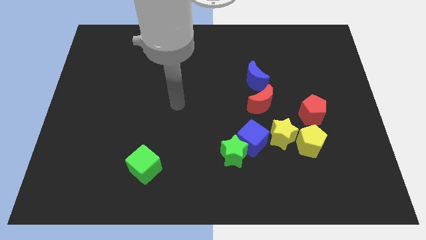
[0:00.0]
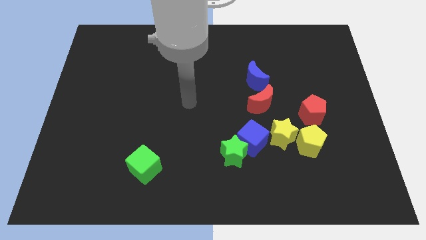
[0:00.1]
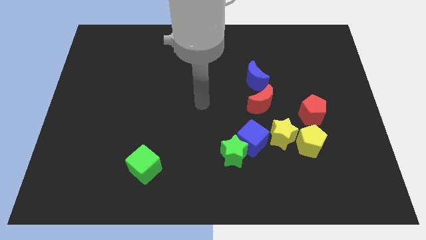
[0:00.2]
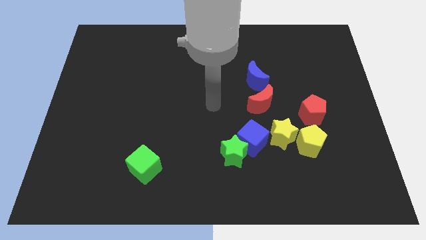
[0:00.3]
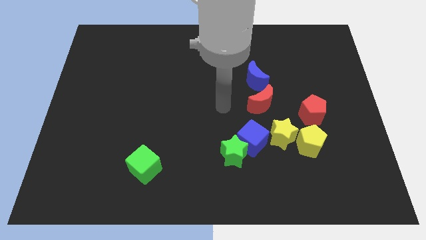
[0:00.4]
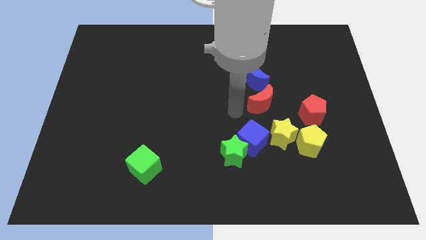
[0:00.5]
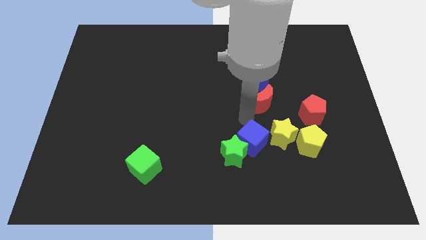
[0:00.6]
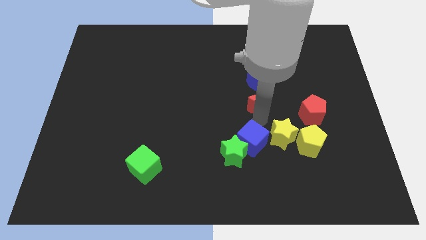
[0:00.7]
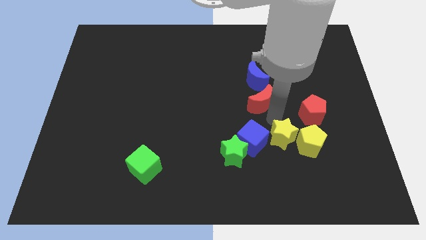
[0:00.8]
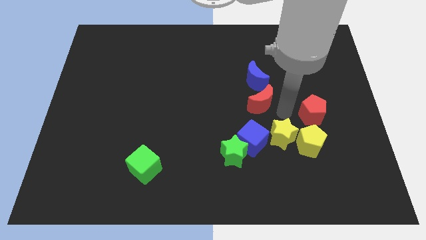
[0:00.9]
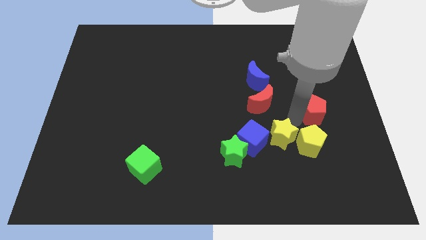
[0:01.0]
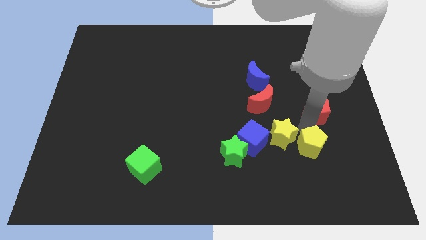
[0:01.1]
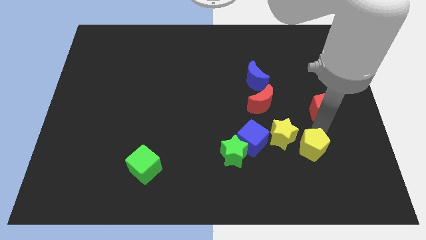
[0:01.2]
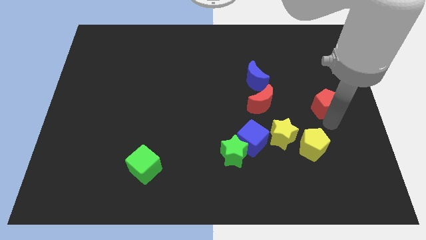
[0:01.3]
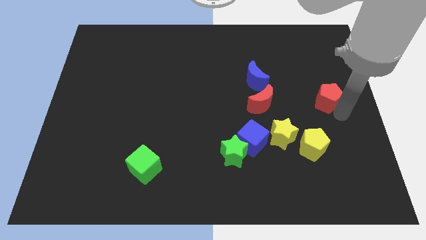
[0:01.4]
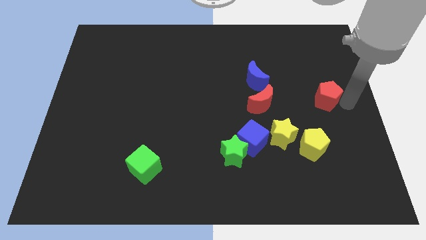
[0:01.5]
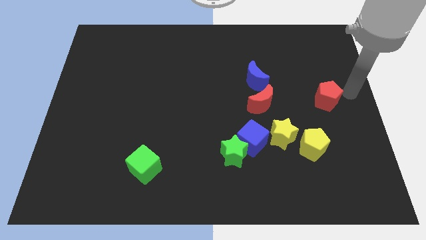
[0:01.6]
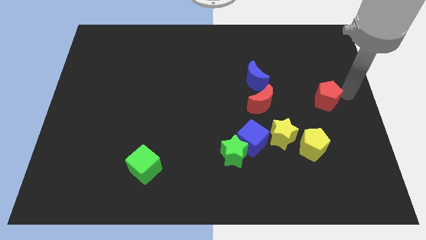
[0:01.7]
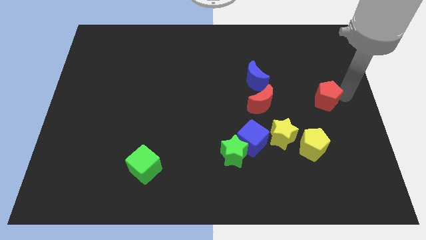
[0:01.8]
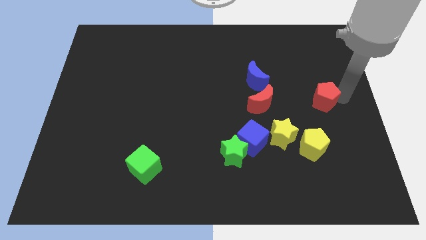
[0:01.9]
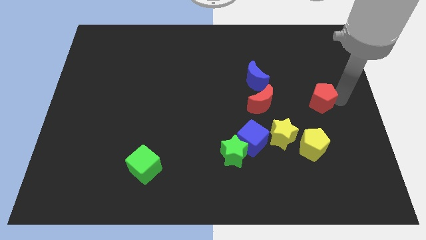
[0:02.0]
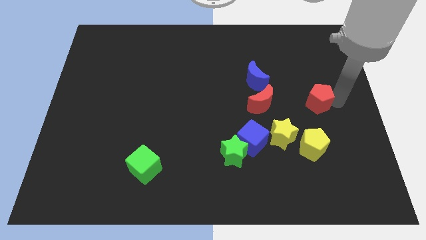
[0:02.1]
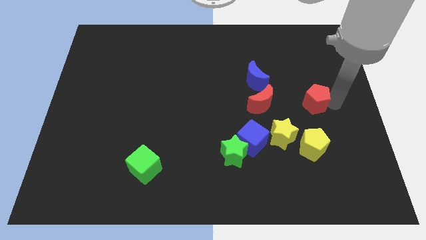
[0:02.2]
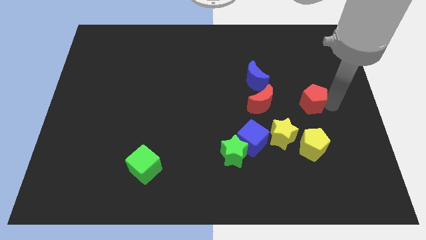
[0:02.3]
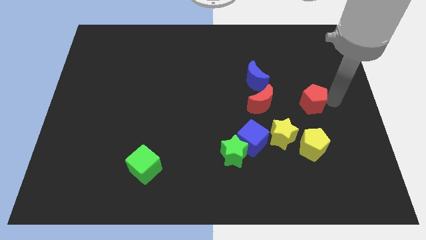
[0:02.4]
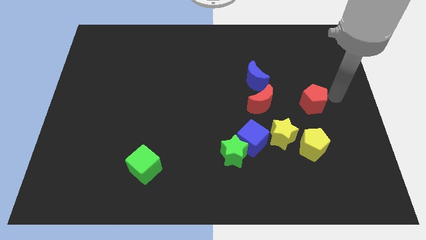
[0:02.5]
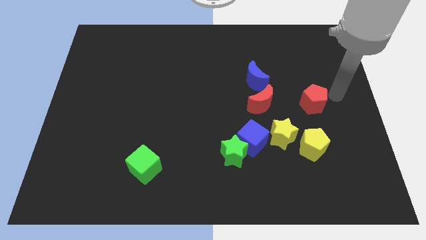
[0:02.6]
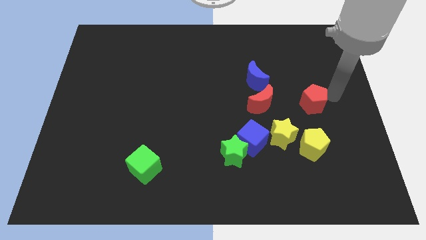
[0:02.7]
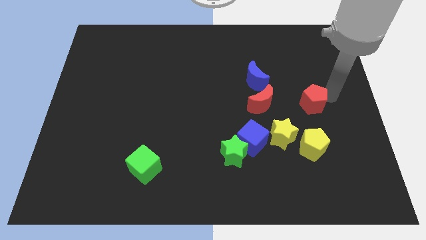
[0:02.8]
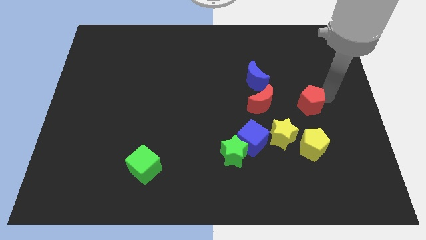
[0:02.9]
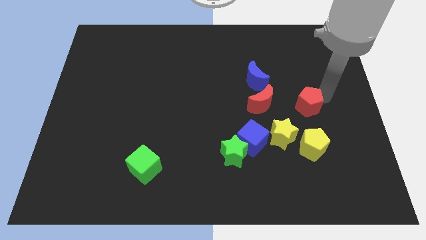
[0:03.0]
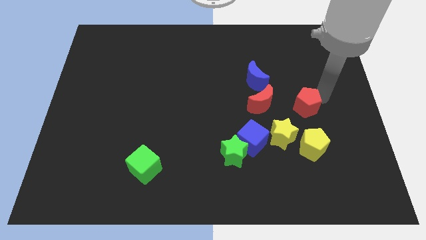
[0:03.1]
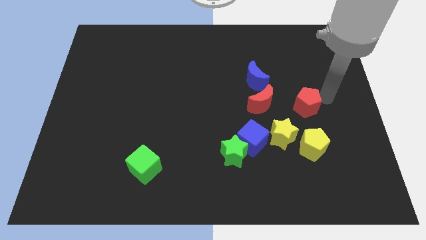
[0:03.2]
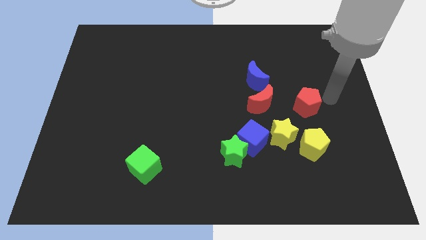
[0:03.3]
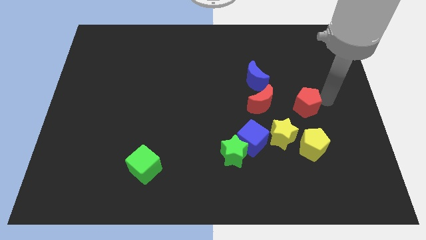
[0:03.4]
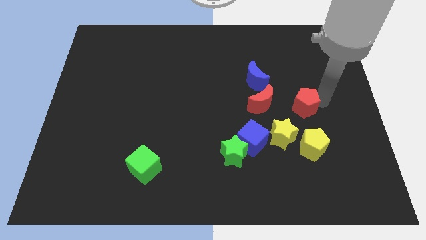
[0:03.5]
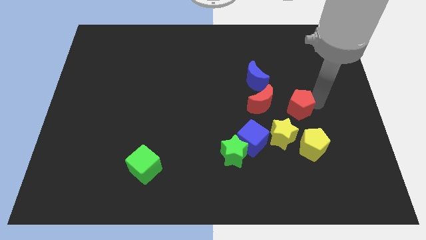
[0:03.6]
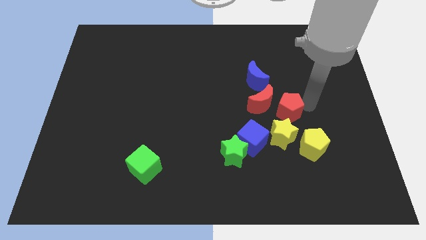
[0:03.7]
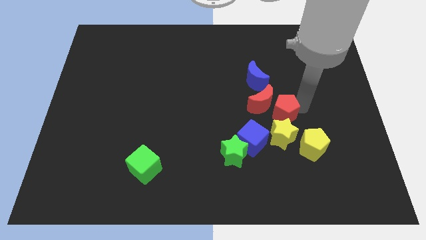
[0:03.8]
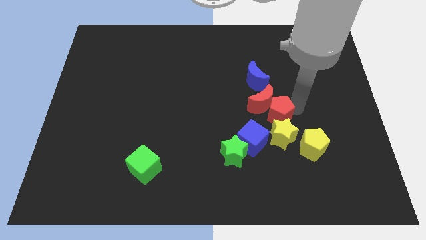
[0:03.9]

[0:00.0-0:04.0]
move the red pentagon a bit to the left

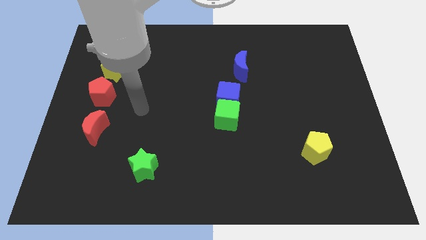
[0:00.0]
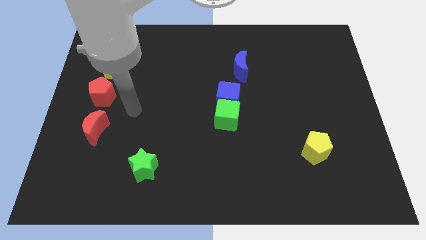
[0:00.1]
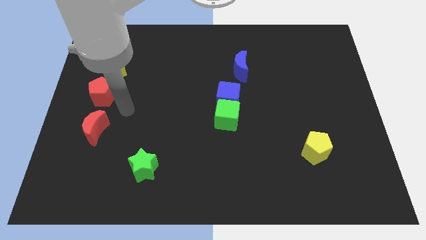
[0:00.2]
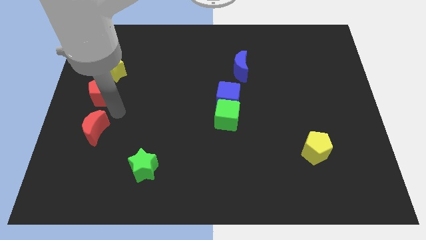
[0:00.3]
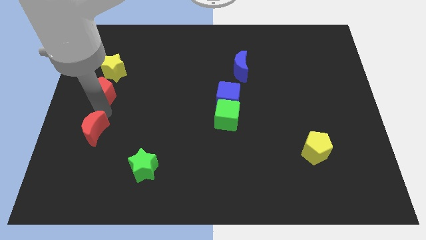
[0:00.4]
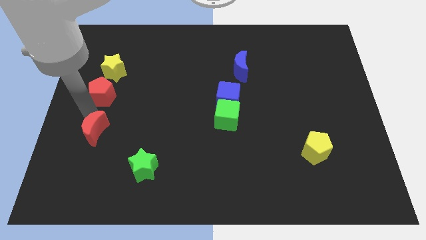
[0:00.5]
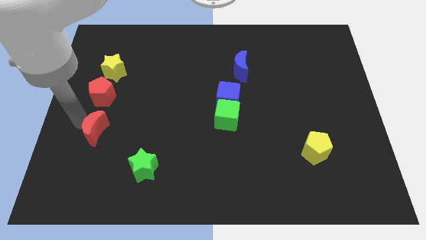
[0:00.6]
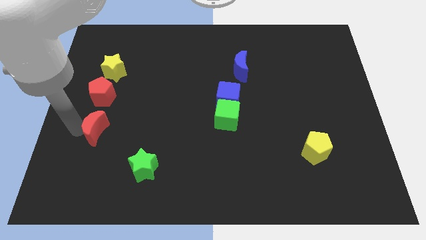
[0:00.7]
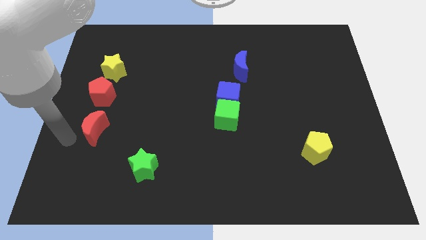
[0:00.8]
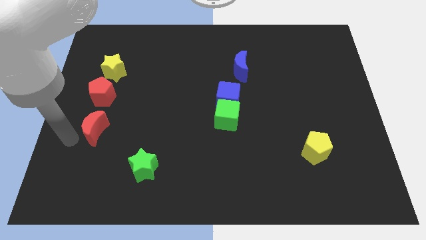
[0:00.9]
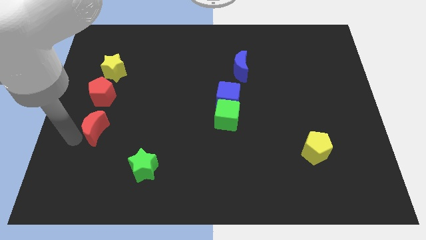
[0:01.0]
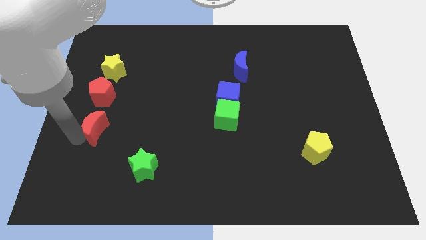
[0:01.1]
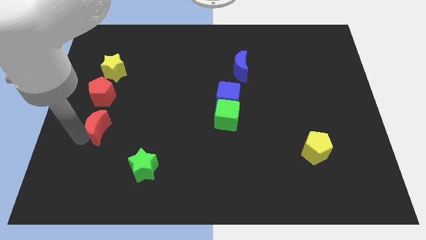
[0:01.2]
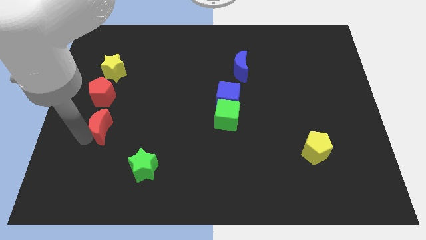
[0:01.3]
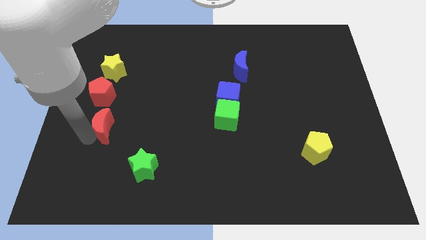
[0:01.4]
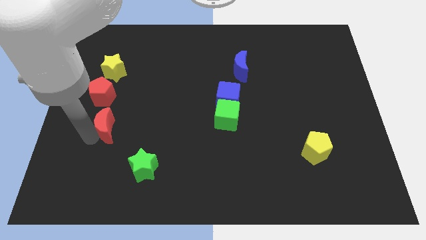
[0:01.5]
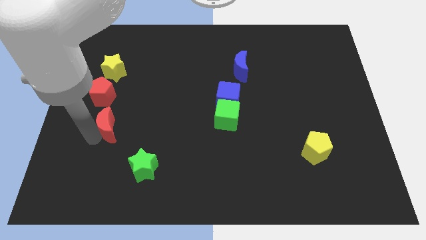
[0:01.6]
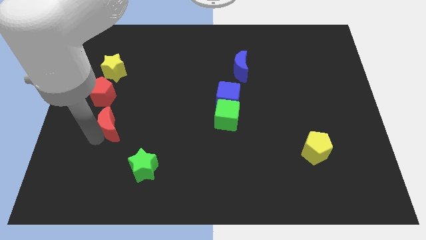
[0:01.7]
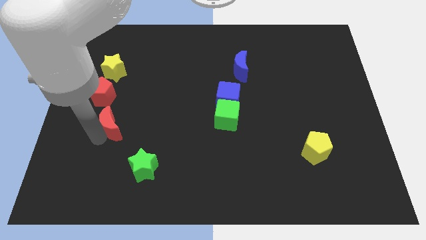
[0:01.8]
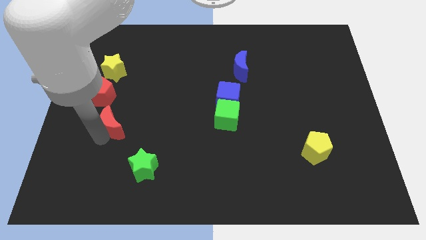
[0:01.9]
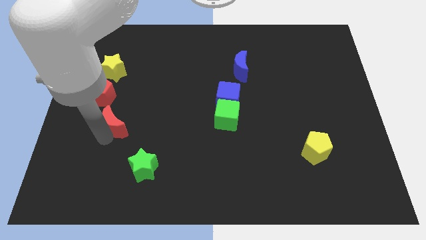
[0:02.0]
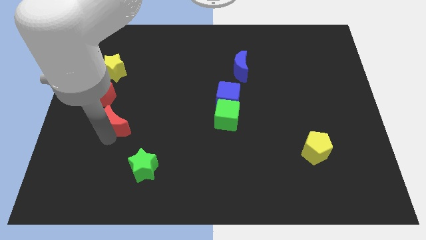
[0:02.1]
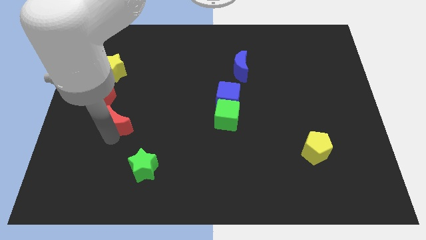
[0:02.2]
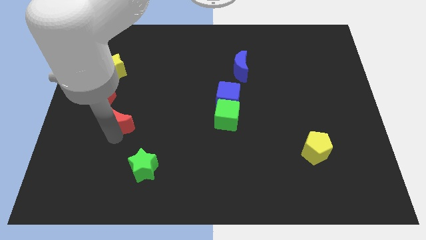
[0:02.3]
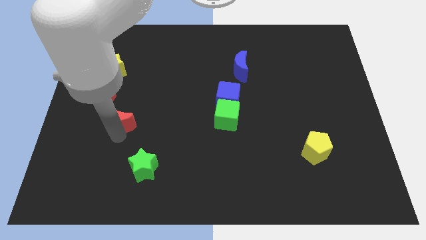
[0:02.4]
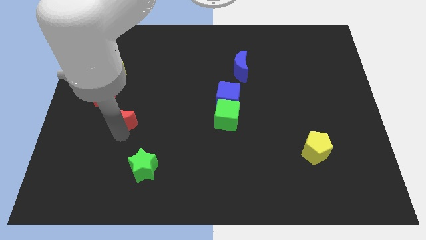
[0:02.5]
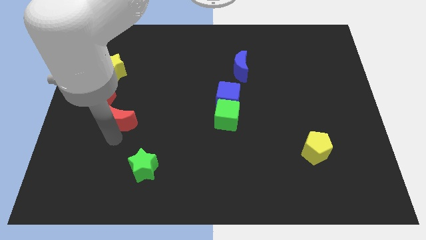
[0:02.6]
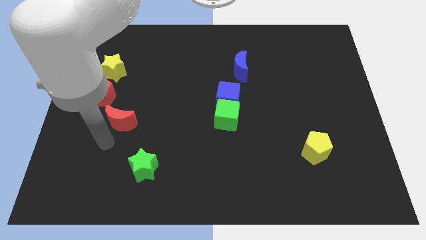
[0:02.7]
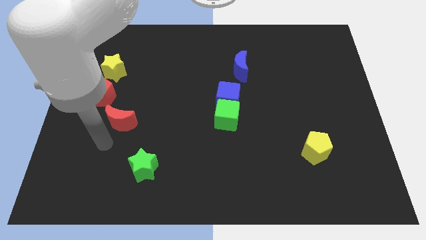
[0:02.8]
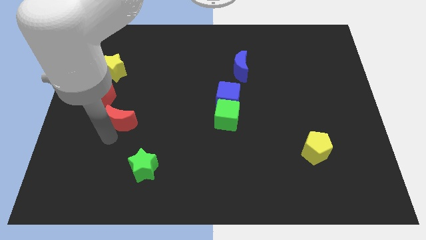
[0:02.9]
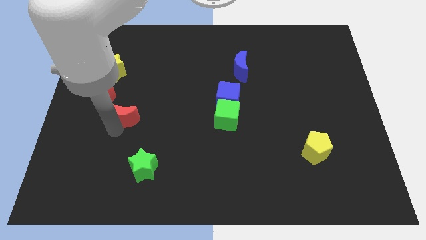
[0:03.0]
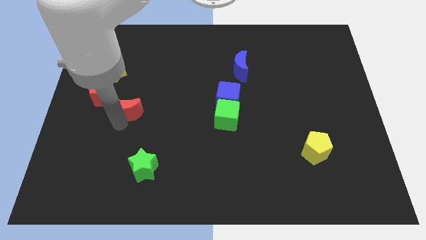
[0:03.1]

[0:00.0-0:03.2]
move the red moon somewhat upwards and right

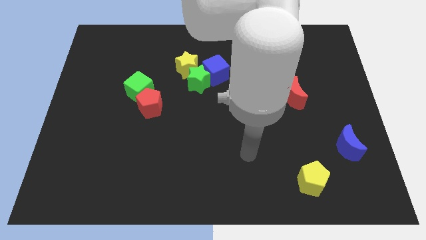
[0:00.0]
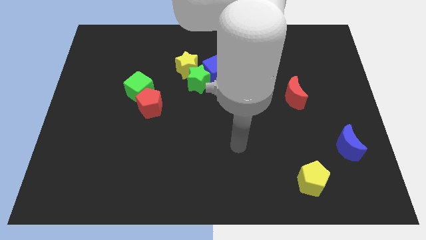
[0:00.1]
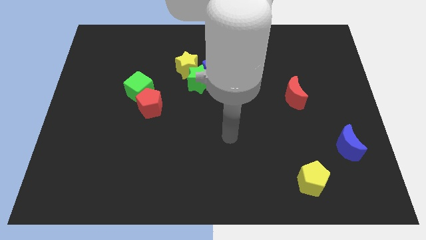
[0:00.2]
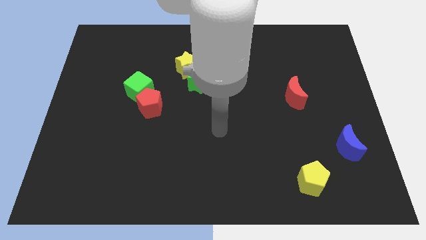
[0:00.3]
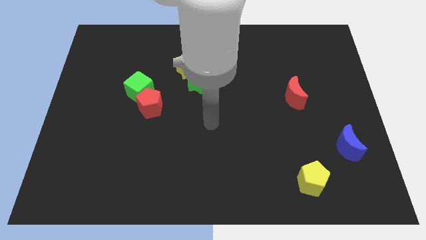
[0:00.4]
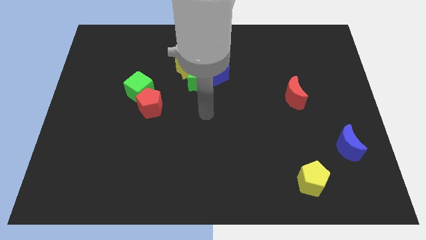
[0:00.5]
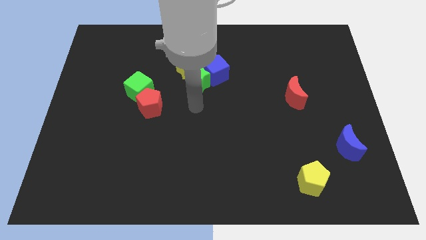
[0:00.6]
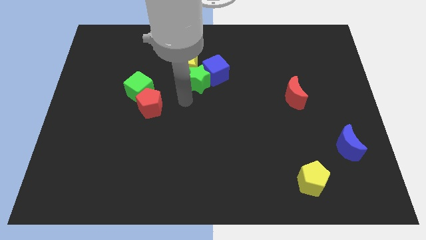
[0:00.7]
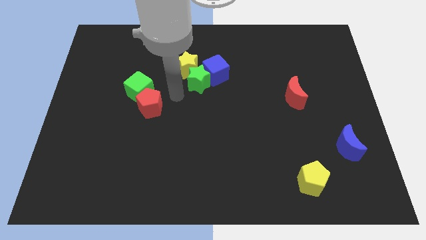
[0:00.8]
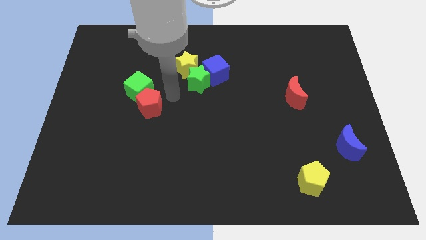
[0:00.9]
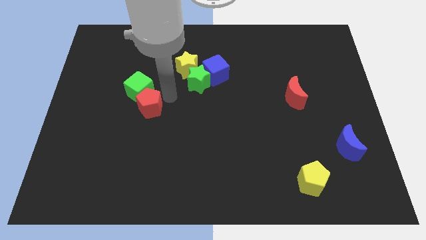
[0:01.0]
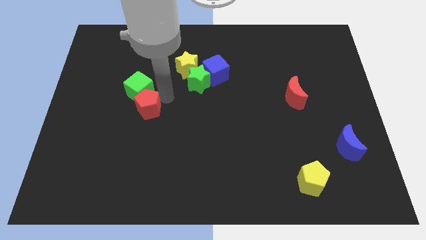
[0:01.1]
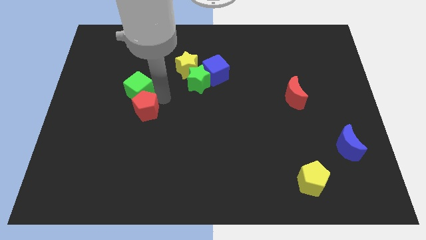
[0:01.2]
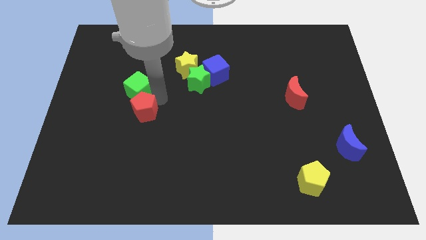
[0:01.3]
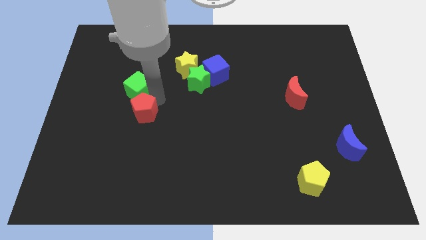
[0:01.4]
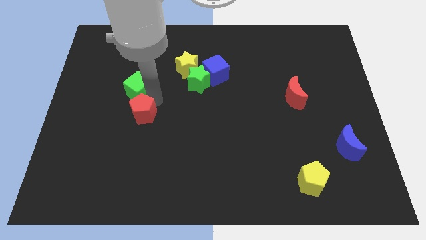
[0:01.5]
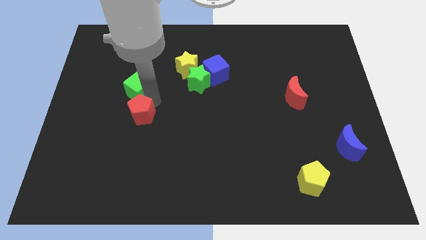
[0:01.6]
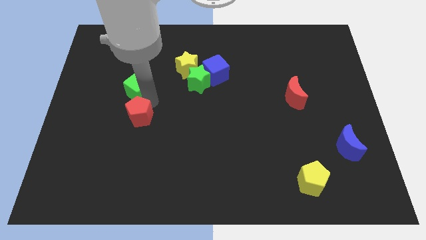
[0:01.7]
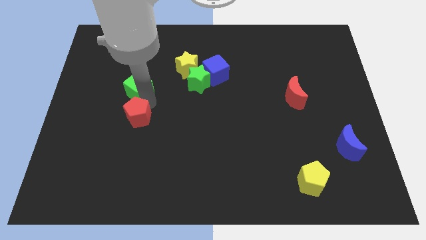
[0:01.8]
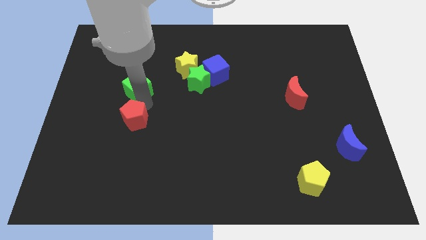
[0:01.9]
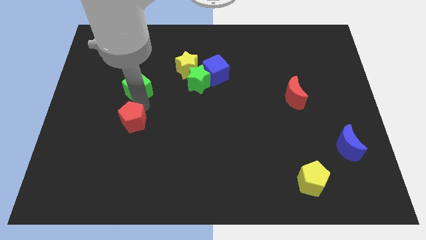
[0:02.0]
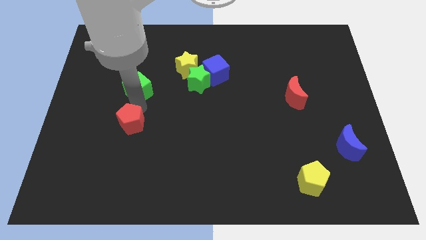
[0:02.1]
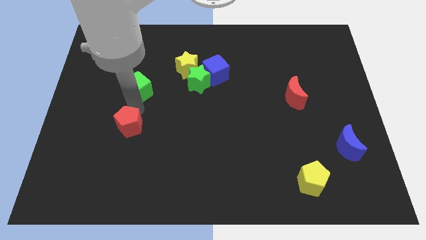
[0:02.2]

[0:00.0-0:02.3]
move the red pentagon down and then to the left somewhat
